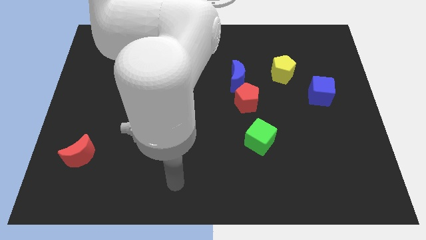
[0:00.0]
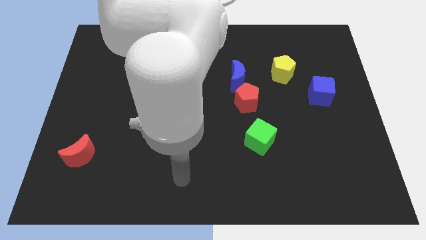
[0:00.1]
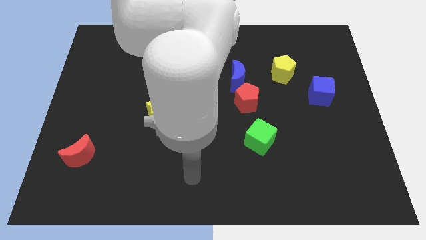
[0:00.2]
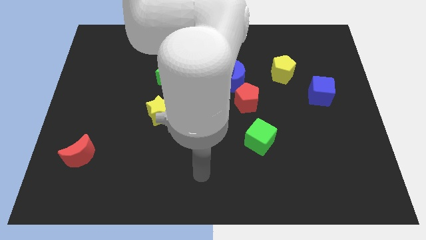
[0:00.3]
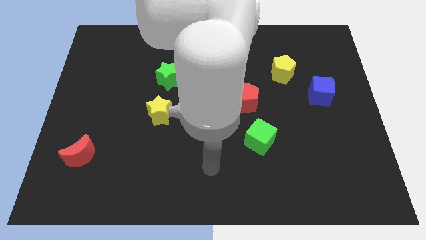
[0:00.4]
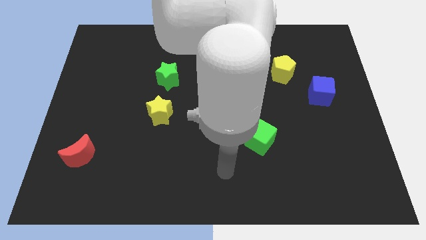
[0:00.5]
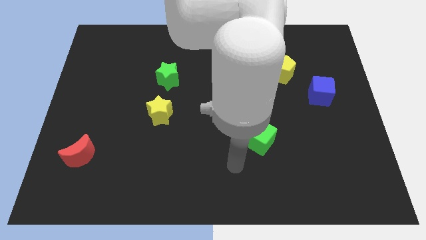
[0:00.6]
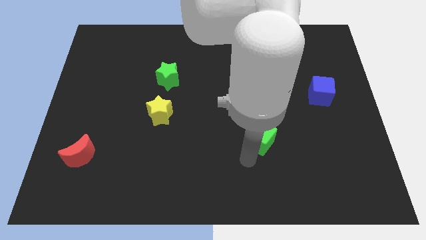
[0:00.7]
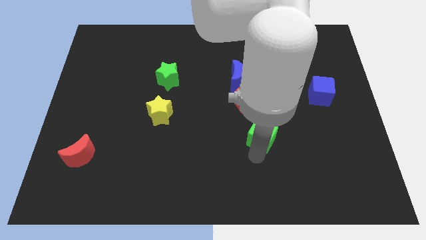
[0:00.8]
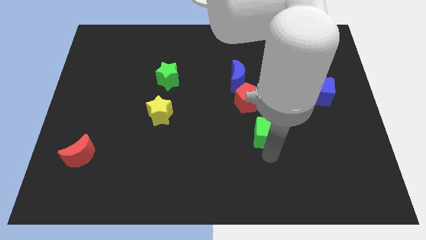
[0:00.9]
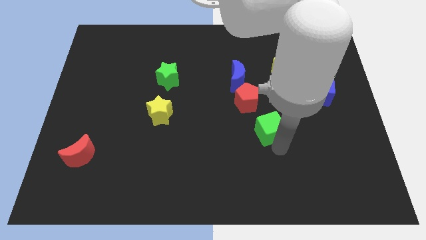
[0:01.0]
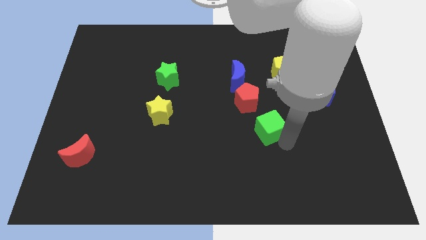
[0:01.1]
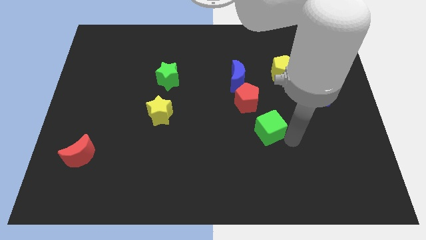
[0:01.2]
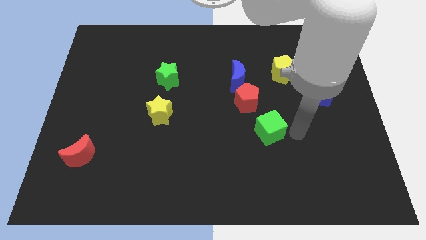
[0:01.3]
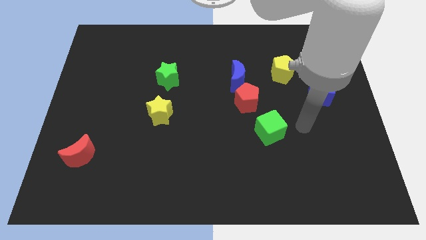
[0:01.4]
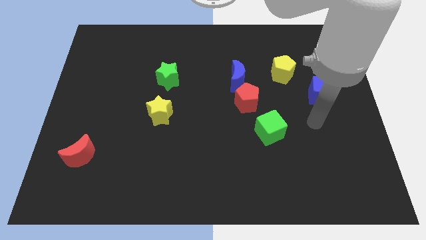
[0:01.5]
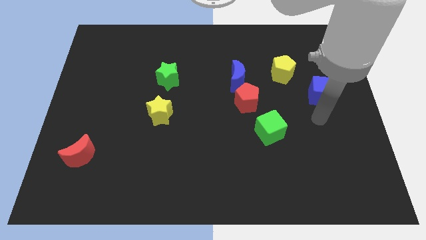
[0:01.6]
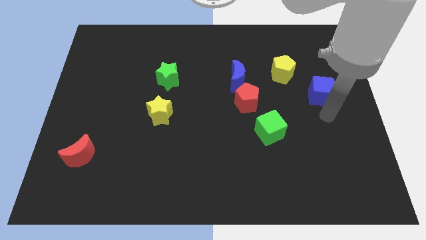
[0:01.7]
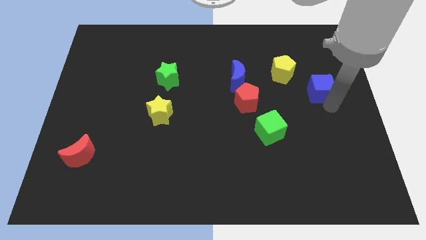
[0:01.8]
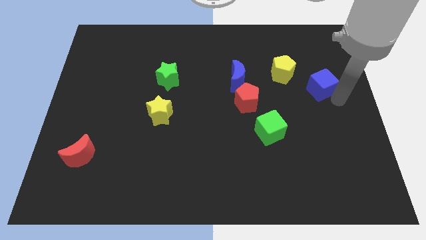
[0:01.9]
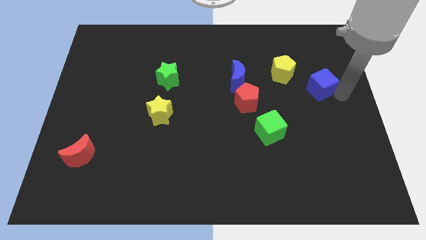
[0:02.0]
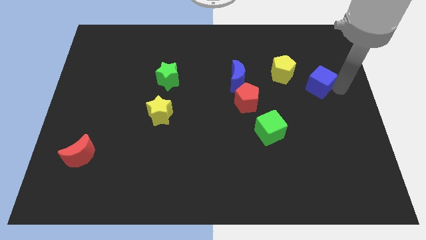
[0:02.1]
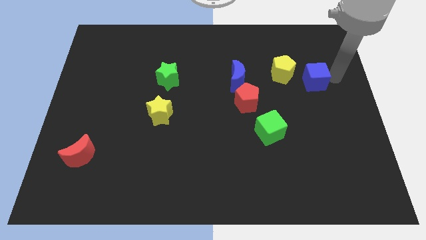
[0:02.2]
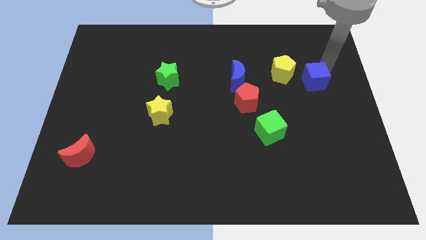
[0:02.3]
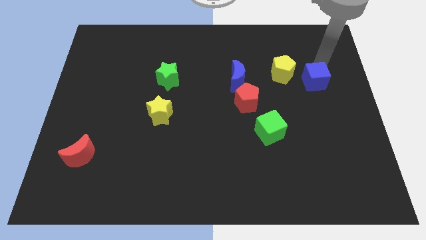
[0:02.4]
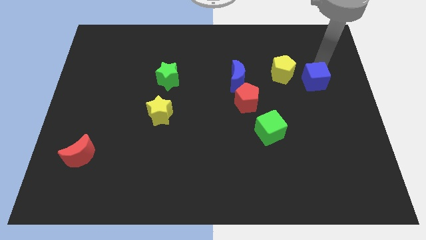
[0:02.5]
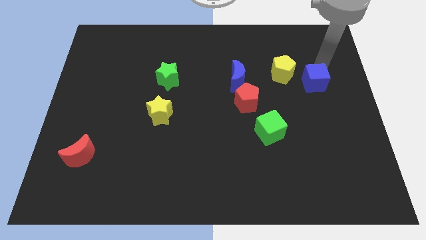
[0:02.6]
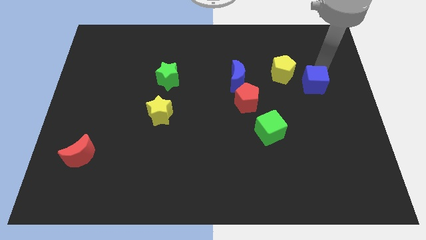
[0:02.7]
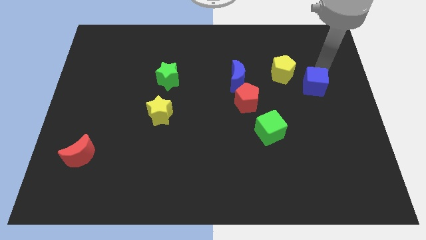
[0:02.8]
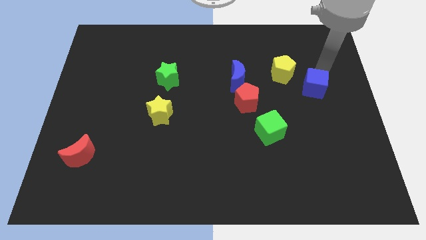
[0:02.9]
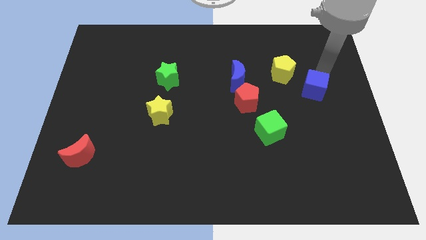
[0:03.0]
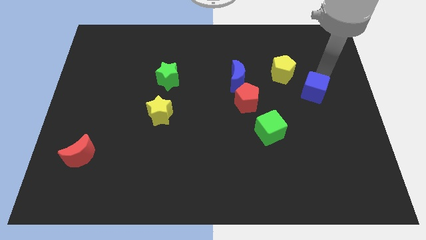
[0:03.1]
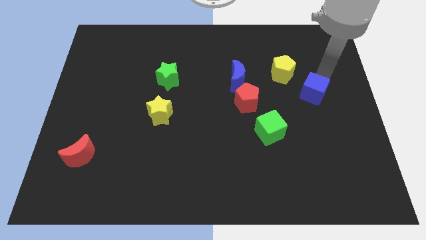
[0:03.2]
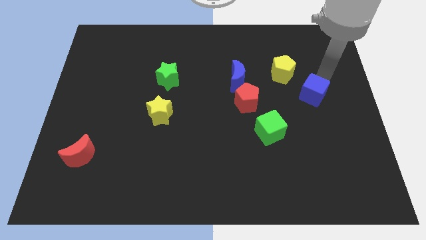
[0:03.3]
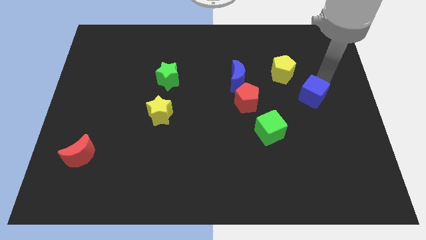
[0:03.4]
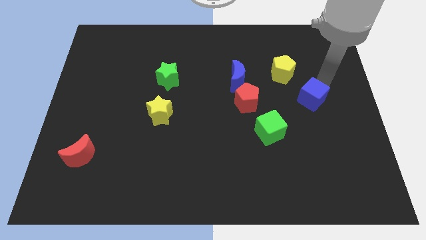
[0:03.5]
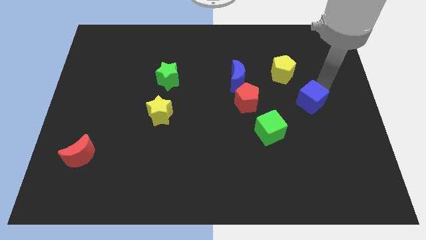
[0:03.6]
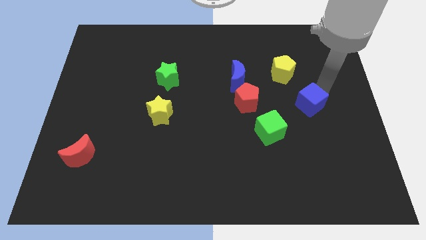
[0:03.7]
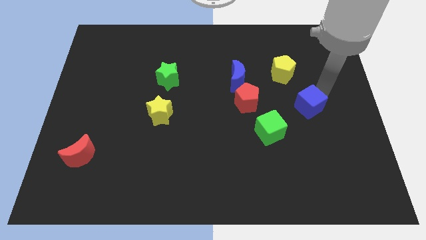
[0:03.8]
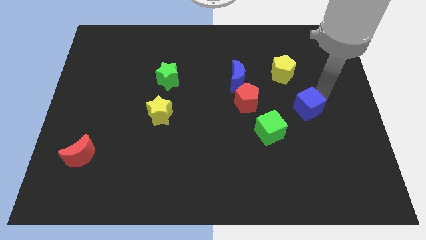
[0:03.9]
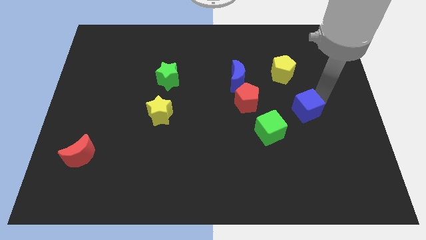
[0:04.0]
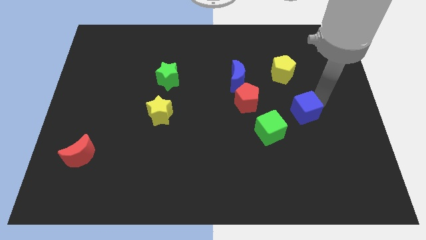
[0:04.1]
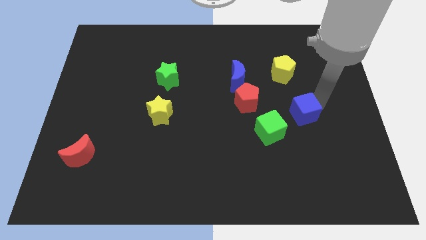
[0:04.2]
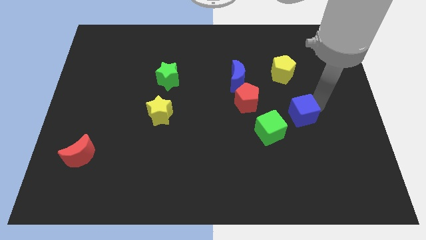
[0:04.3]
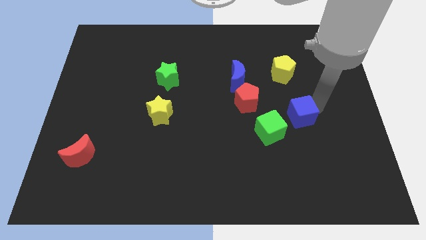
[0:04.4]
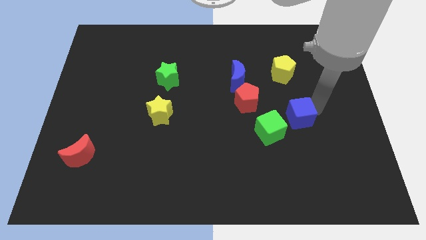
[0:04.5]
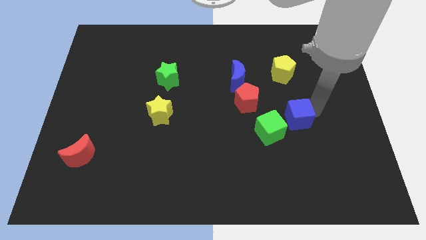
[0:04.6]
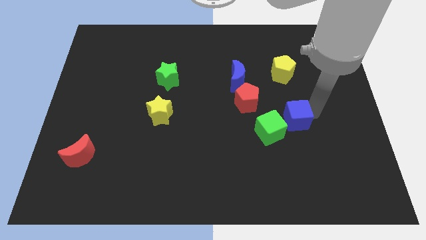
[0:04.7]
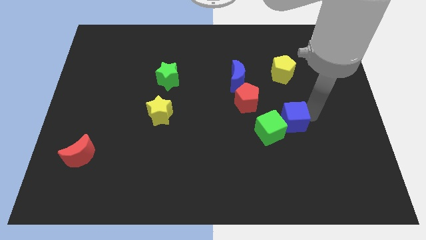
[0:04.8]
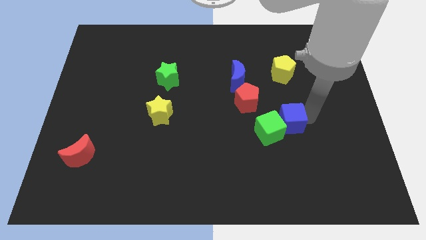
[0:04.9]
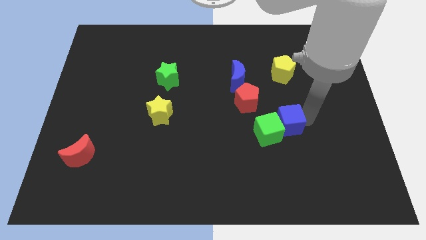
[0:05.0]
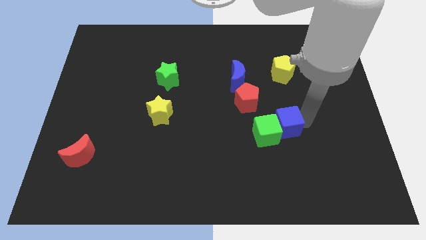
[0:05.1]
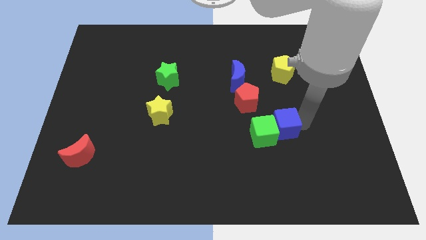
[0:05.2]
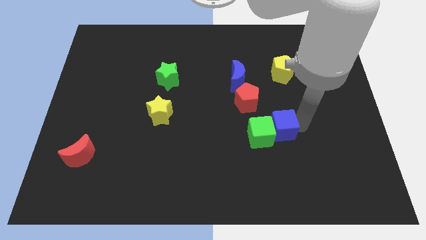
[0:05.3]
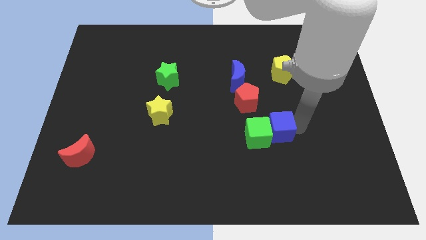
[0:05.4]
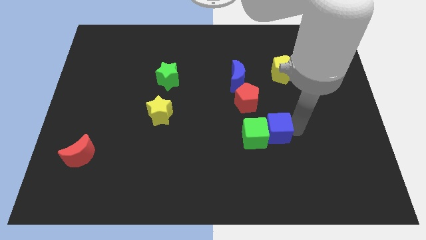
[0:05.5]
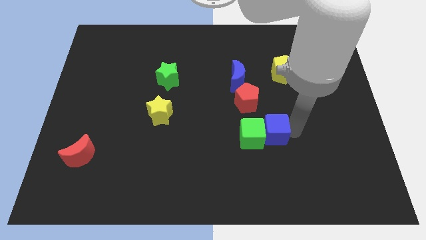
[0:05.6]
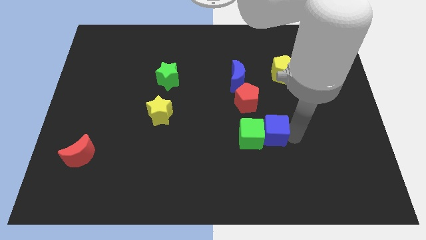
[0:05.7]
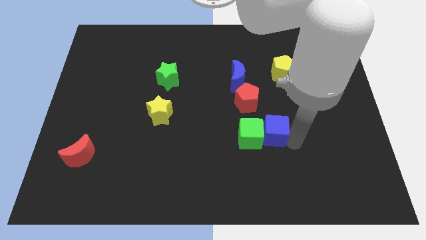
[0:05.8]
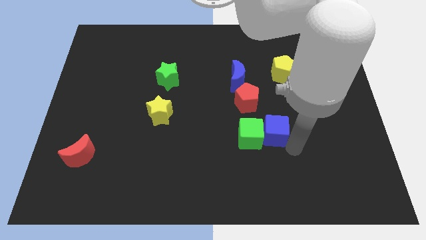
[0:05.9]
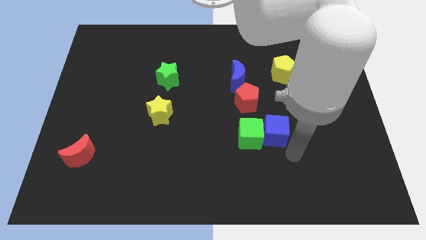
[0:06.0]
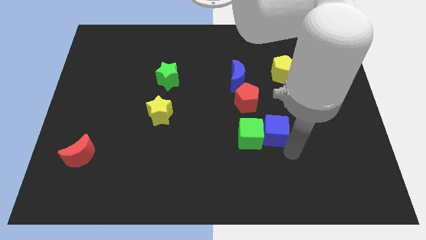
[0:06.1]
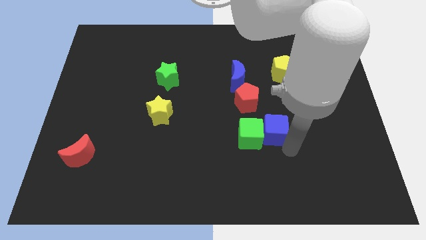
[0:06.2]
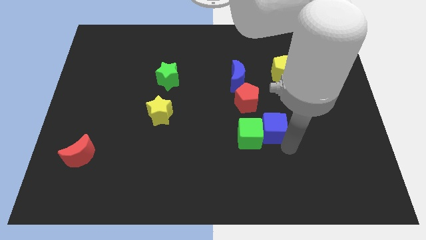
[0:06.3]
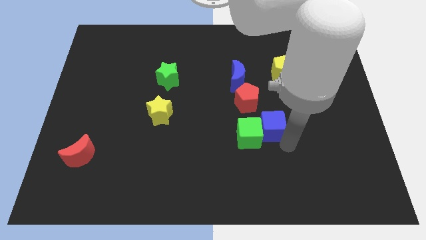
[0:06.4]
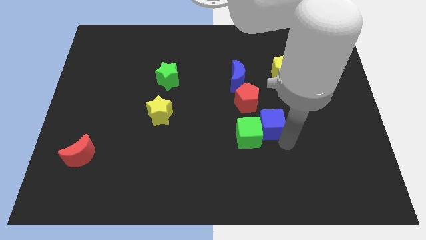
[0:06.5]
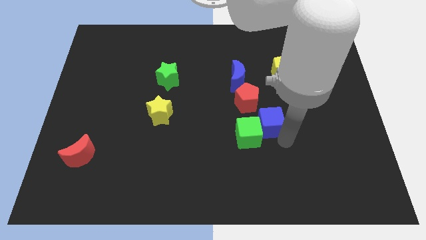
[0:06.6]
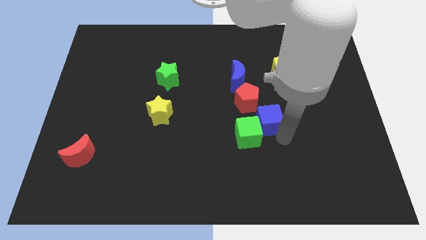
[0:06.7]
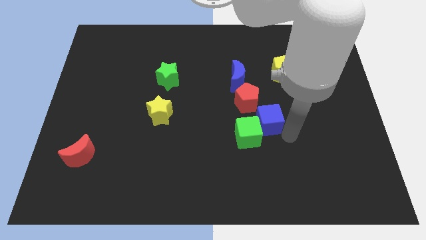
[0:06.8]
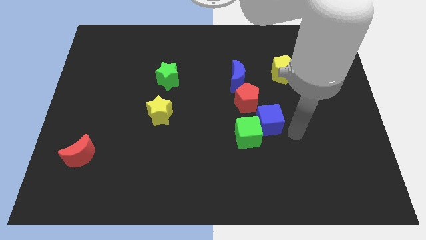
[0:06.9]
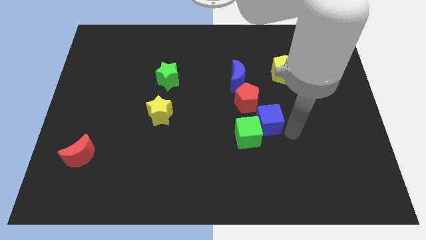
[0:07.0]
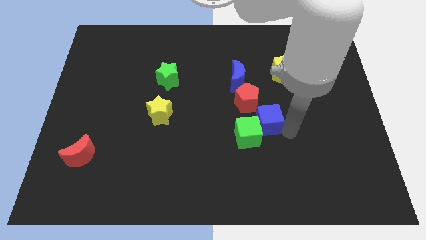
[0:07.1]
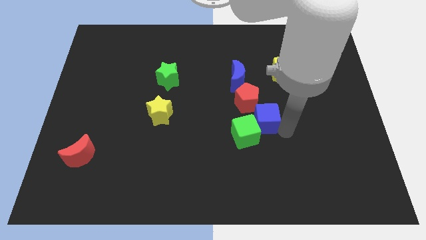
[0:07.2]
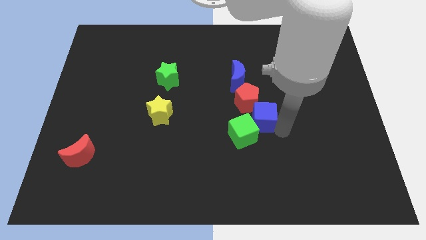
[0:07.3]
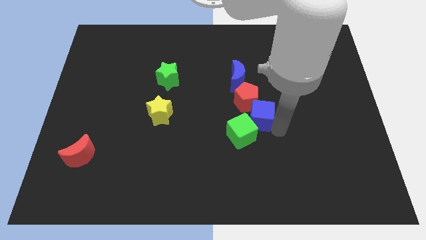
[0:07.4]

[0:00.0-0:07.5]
move the blue cube below the blue moon
